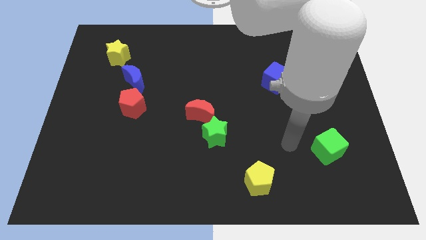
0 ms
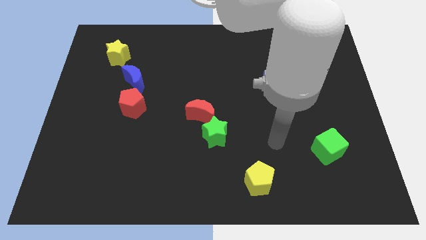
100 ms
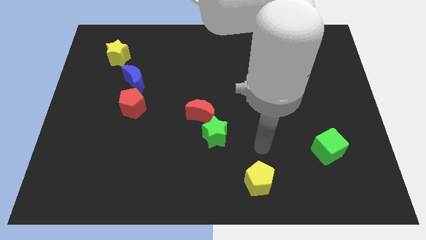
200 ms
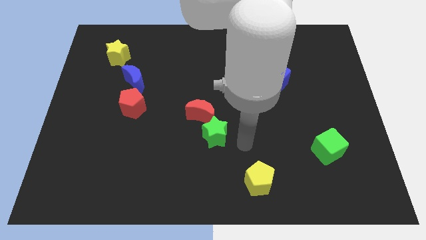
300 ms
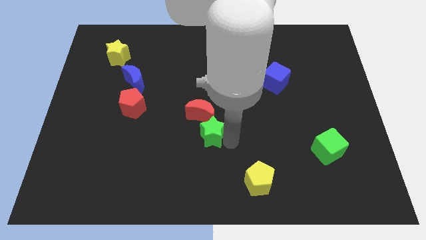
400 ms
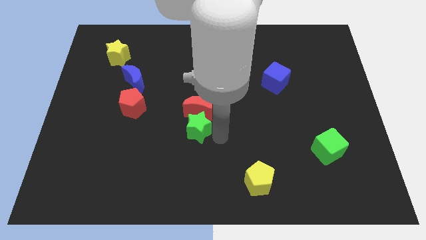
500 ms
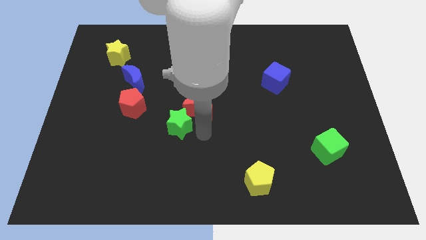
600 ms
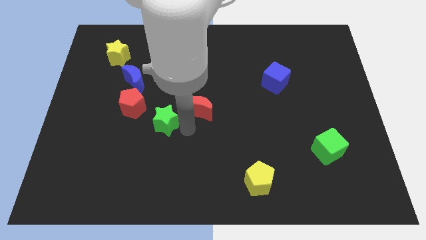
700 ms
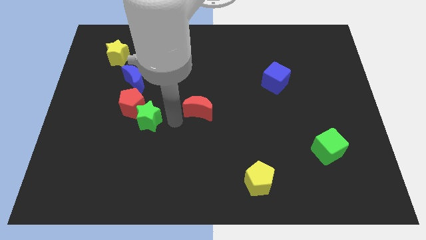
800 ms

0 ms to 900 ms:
separate the red moon from the green star

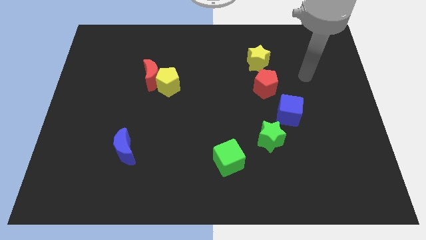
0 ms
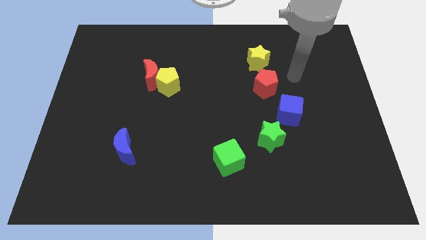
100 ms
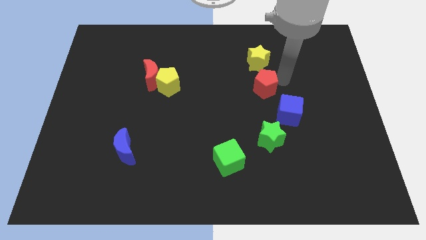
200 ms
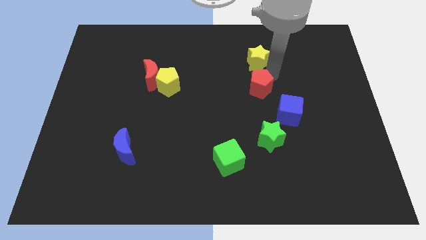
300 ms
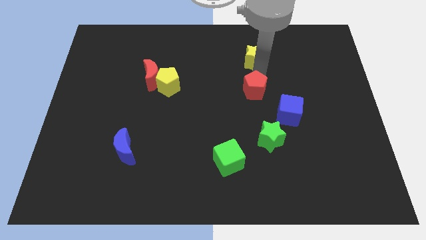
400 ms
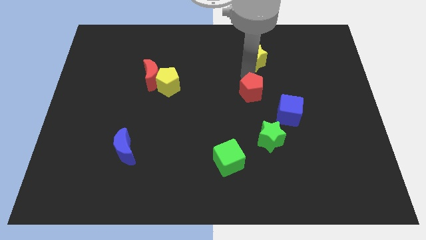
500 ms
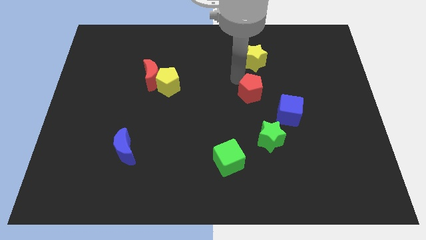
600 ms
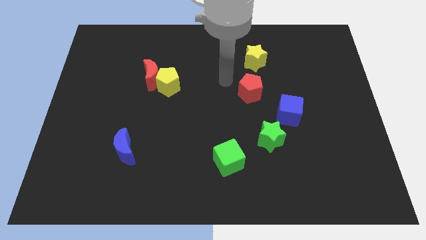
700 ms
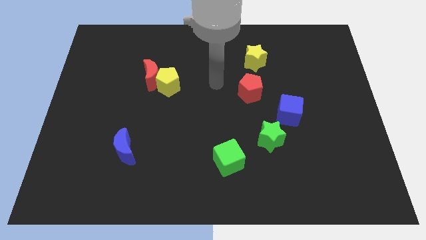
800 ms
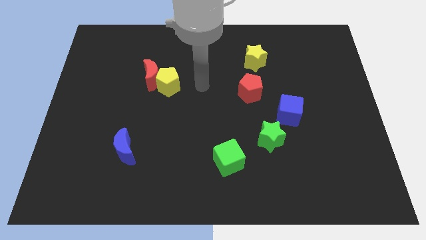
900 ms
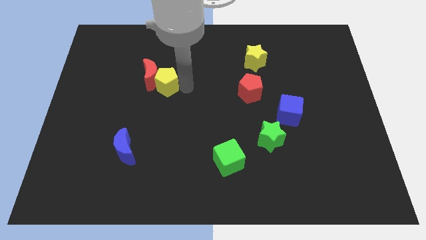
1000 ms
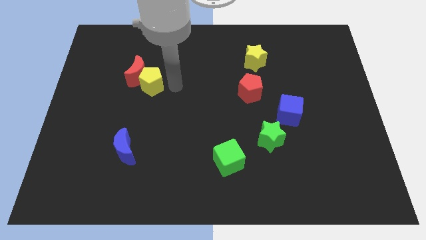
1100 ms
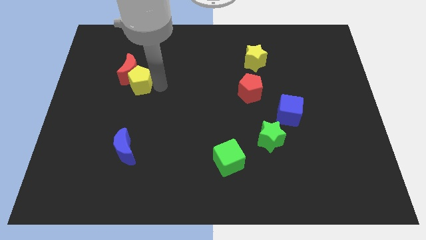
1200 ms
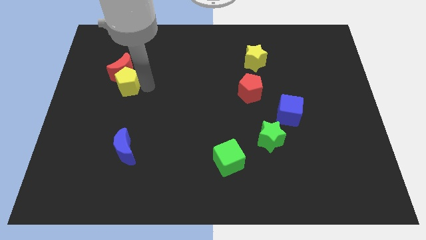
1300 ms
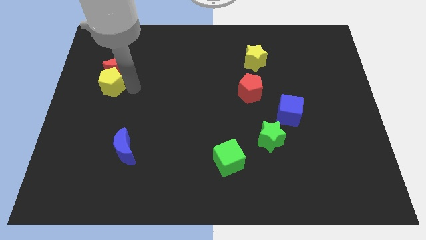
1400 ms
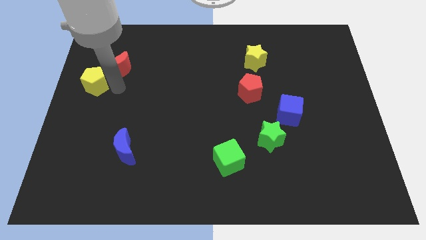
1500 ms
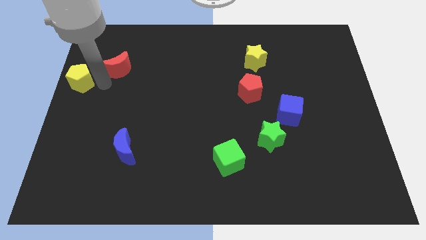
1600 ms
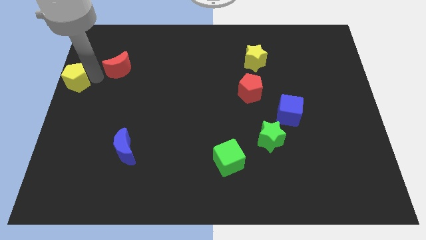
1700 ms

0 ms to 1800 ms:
pull the red moon apart from the yellow pentagon

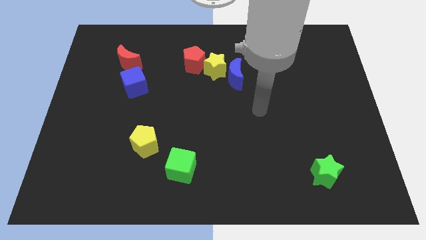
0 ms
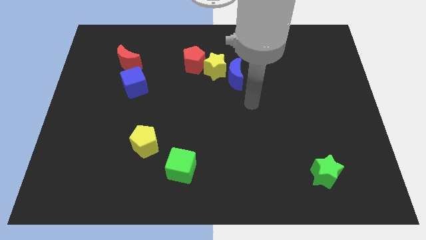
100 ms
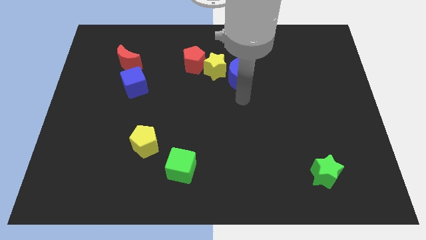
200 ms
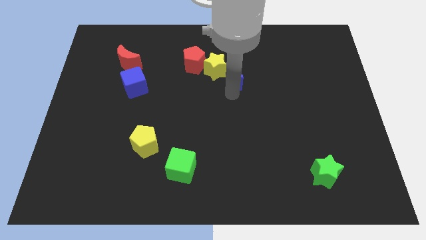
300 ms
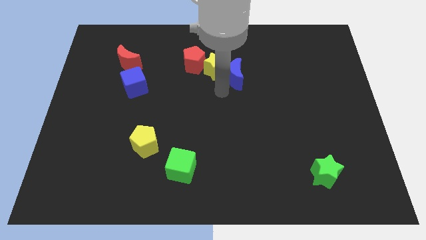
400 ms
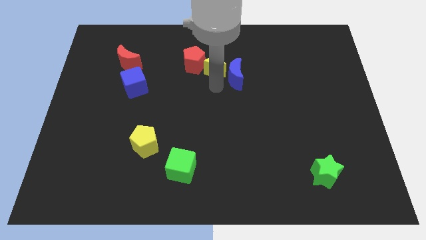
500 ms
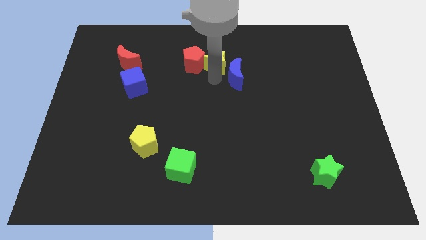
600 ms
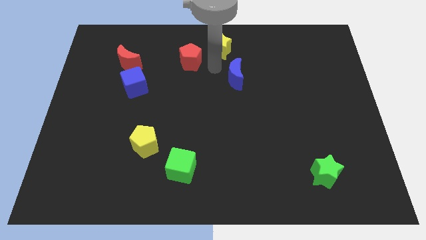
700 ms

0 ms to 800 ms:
move the blue moon away from the yellow star

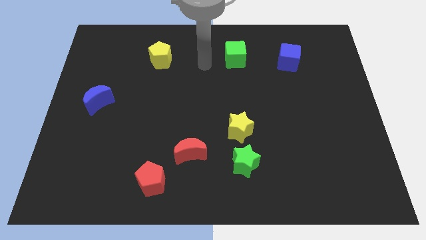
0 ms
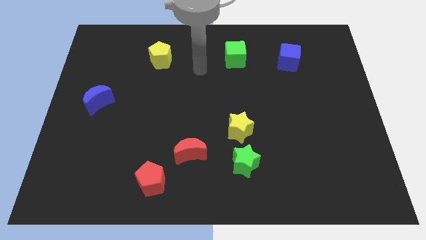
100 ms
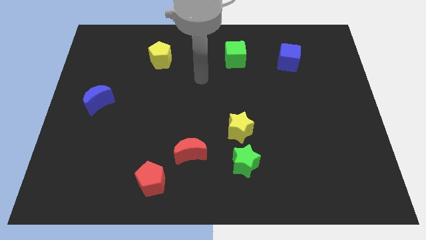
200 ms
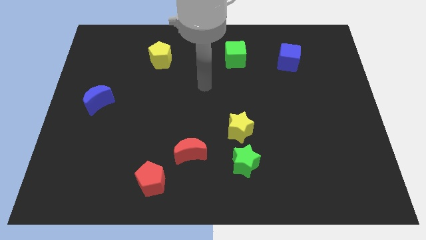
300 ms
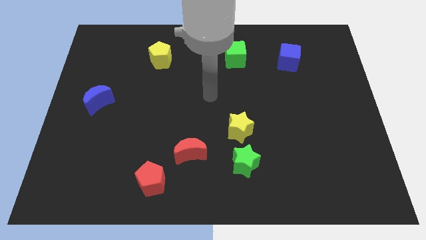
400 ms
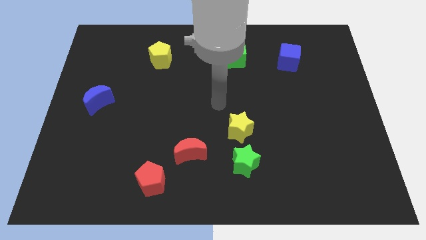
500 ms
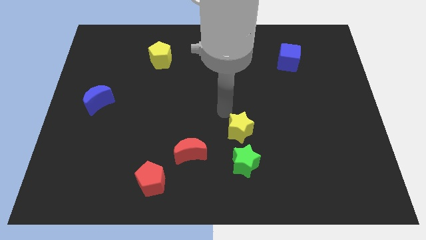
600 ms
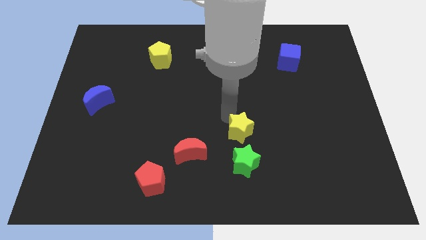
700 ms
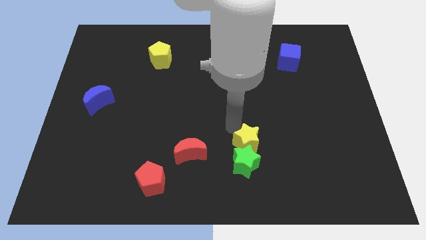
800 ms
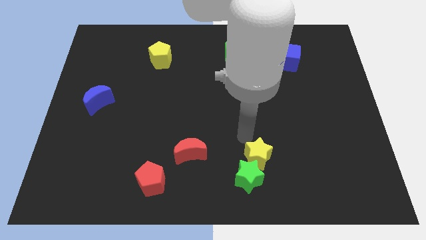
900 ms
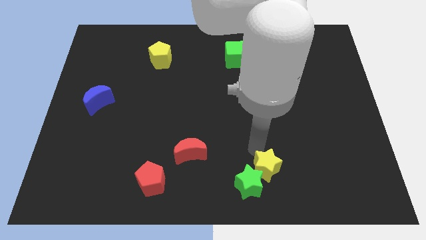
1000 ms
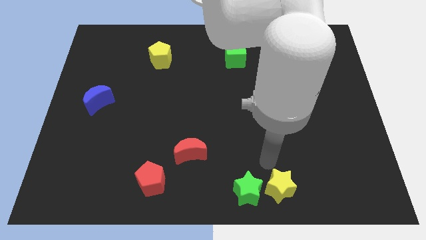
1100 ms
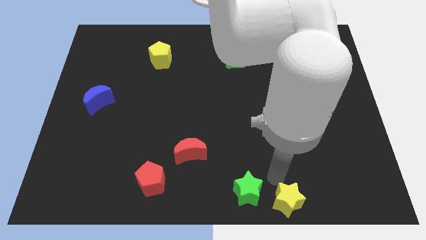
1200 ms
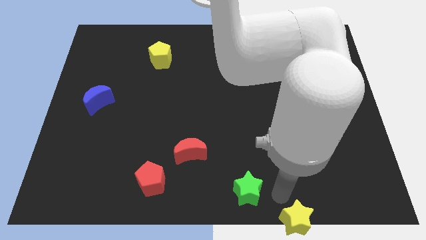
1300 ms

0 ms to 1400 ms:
move the green star away from the yellow star

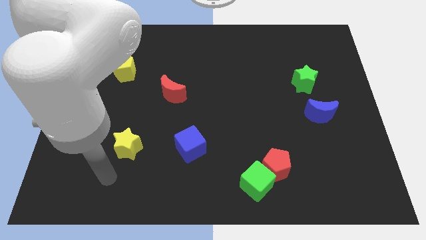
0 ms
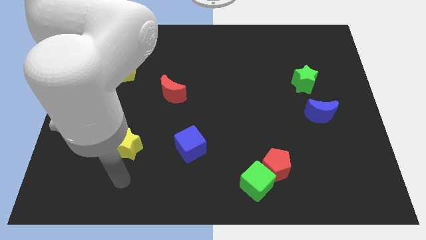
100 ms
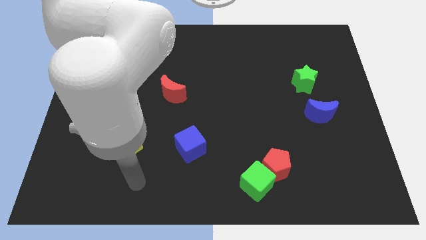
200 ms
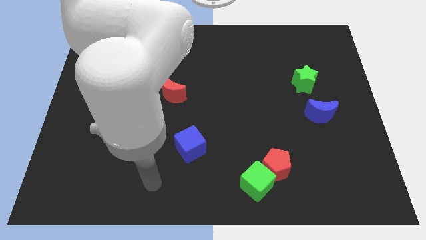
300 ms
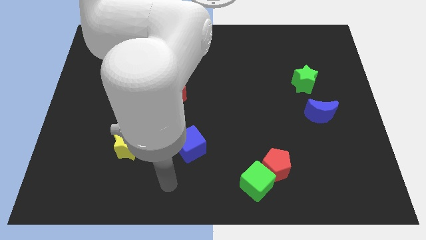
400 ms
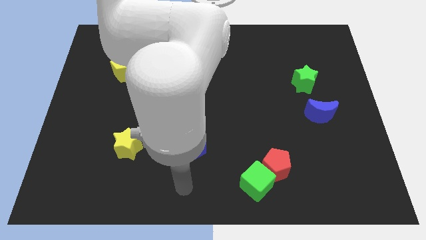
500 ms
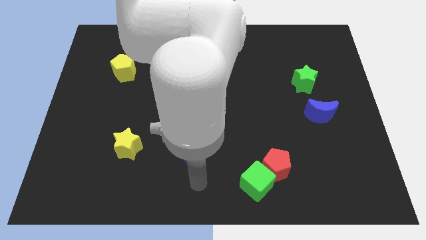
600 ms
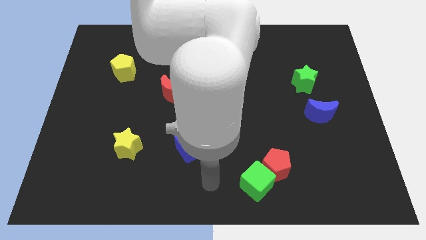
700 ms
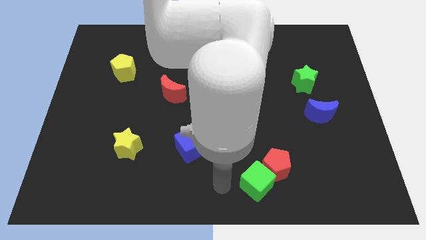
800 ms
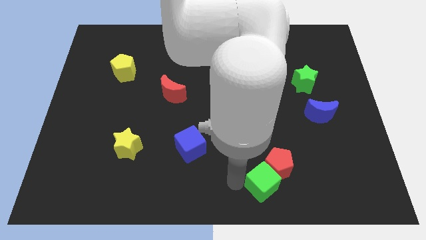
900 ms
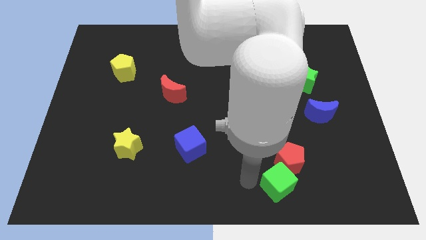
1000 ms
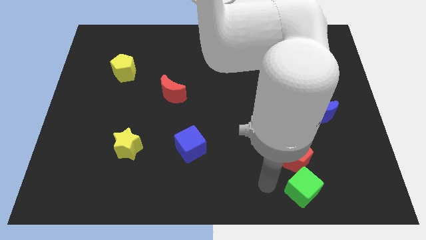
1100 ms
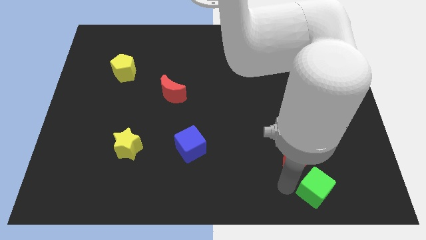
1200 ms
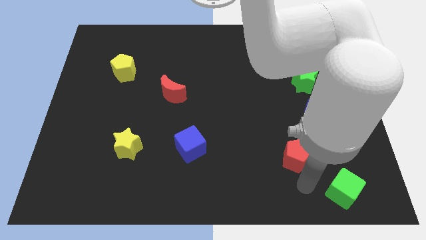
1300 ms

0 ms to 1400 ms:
move the red pentagon away from the green cube

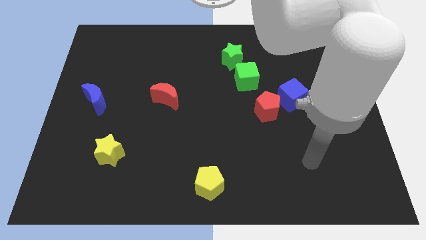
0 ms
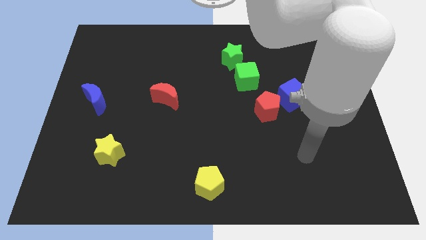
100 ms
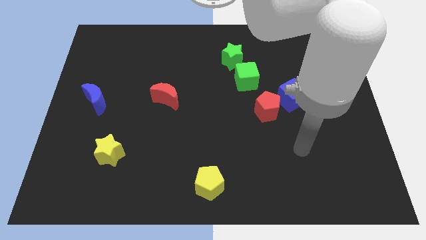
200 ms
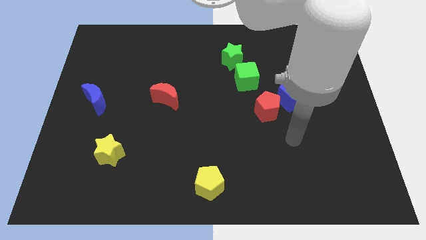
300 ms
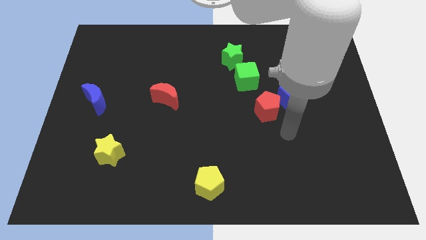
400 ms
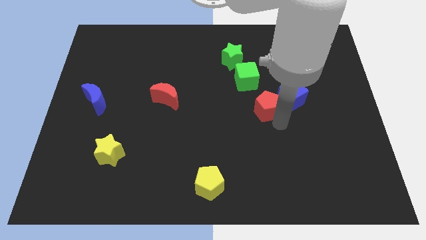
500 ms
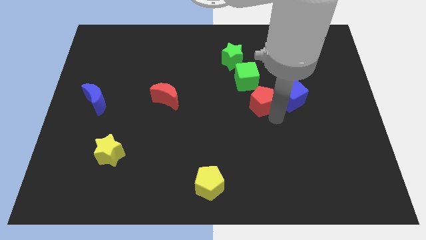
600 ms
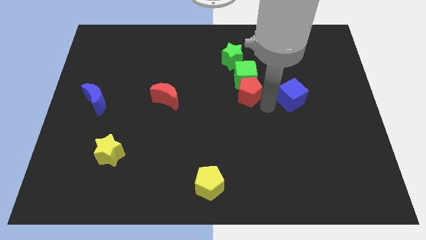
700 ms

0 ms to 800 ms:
separate the blue cube from the red pentagon

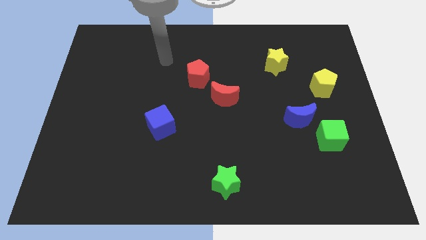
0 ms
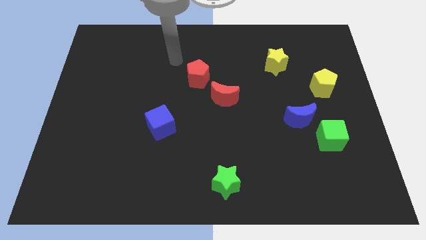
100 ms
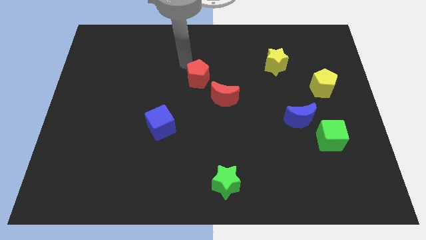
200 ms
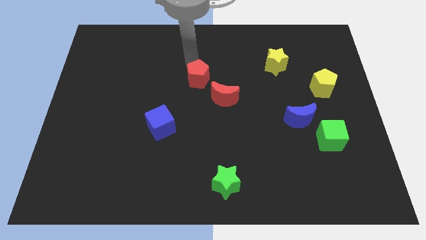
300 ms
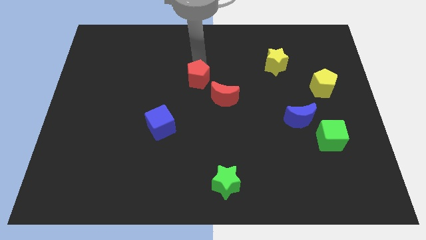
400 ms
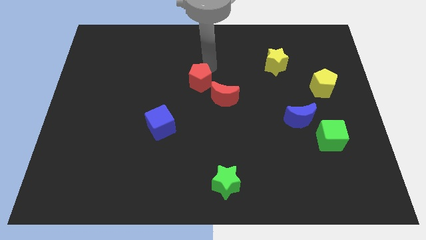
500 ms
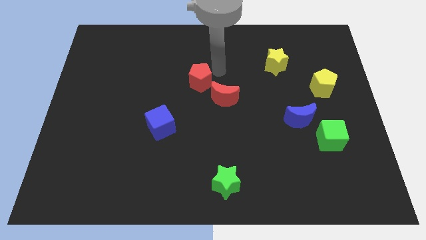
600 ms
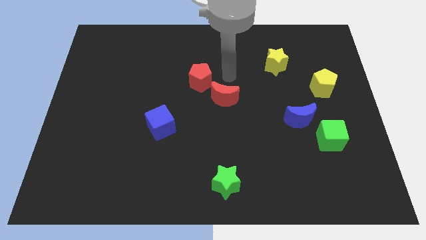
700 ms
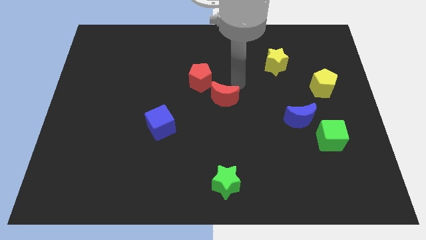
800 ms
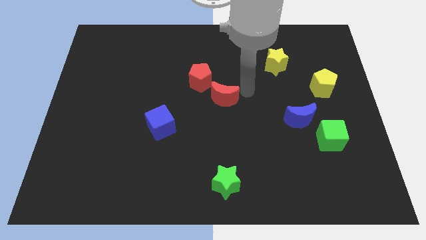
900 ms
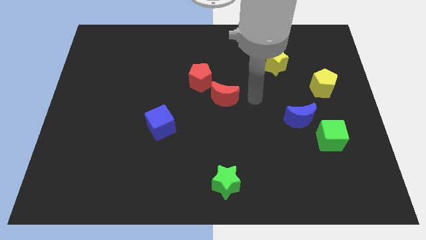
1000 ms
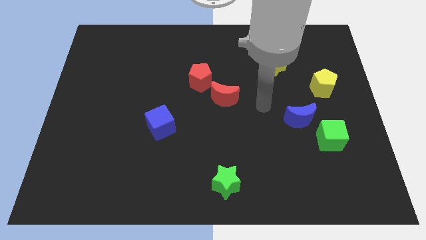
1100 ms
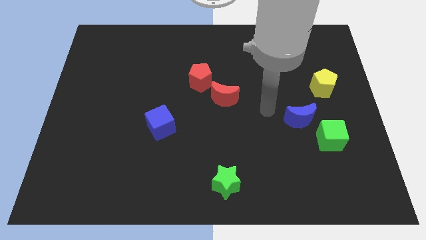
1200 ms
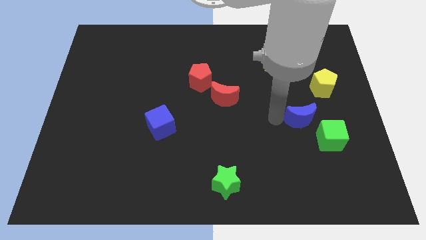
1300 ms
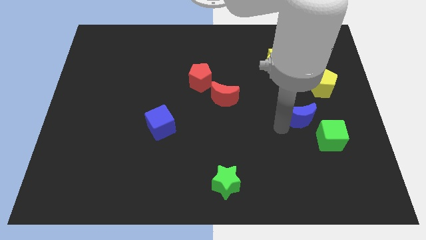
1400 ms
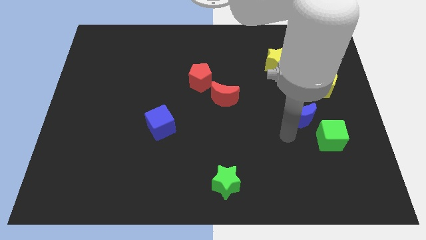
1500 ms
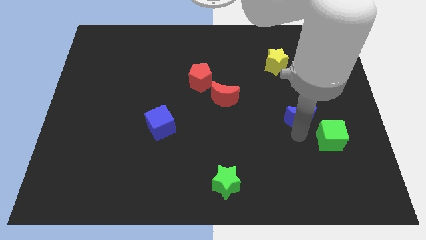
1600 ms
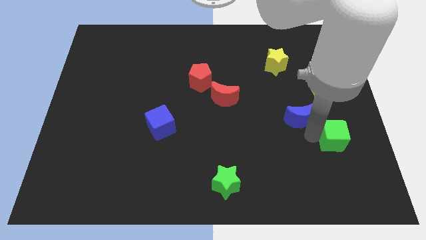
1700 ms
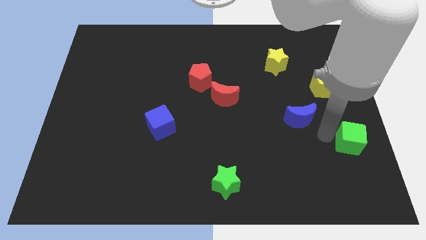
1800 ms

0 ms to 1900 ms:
move the blue moon away from the green cube

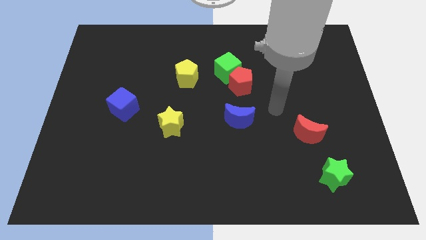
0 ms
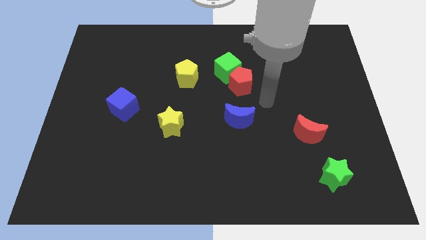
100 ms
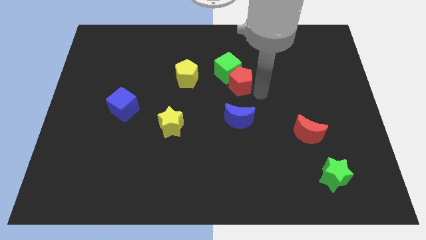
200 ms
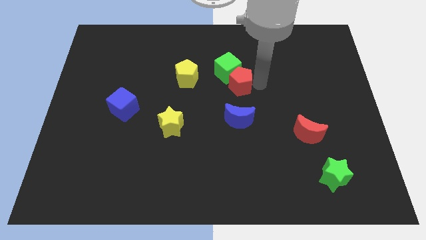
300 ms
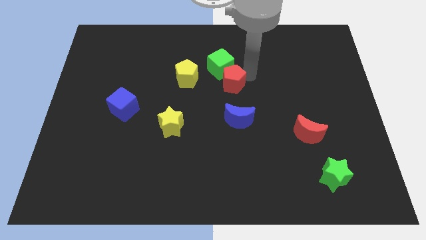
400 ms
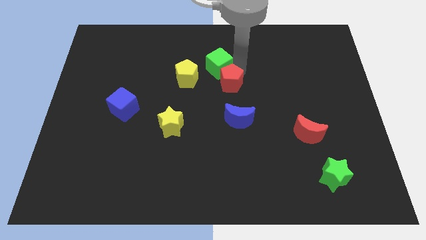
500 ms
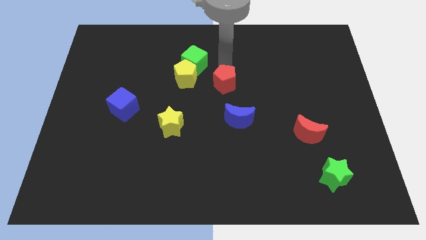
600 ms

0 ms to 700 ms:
separate the red pentagon from the green cube
